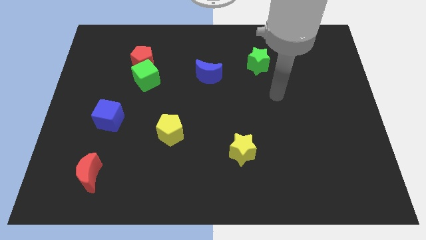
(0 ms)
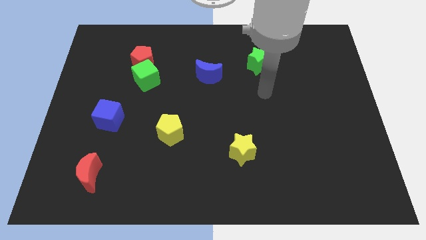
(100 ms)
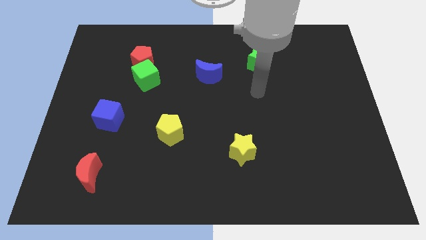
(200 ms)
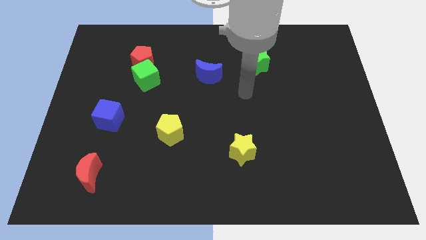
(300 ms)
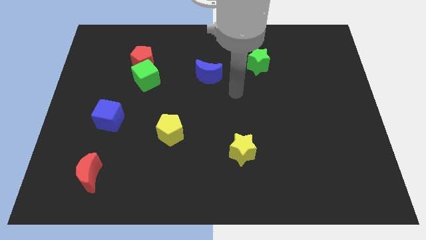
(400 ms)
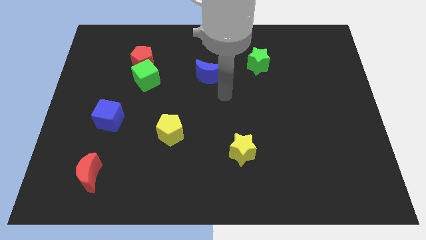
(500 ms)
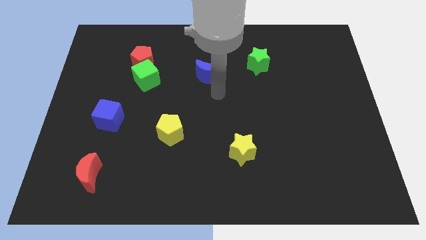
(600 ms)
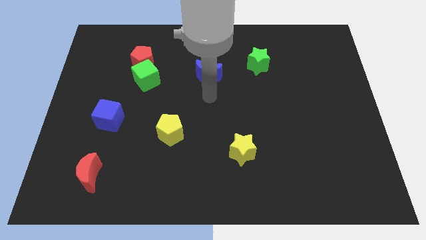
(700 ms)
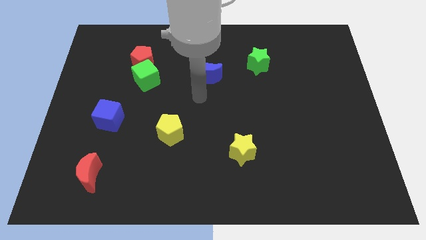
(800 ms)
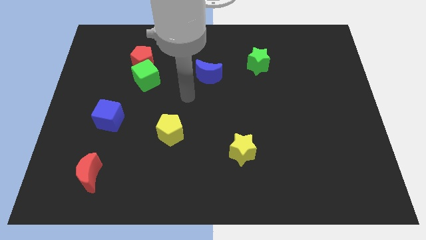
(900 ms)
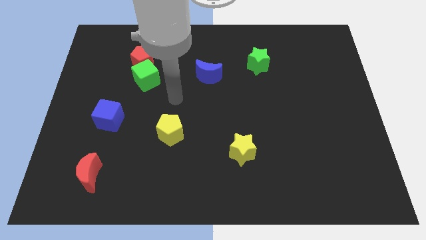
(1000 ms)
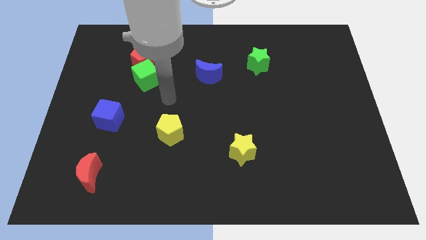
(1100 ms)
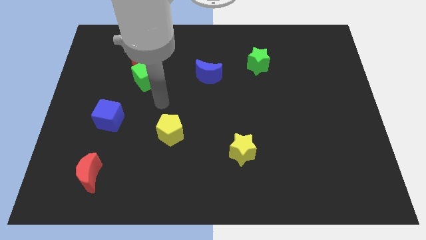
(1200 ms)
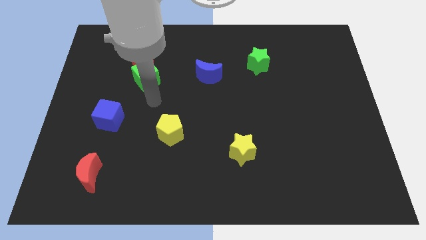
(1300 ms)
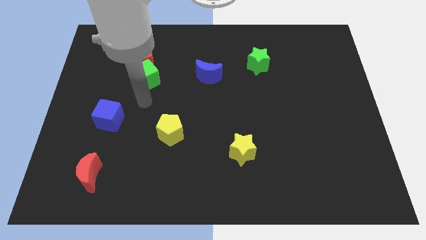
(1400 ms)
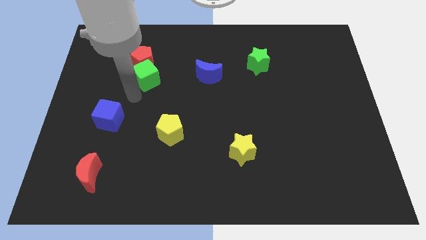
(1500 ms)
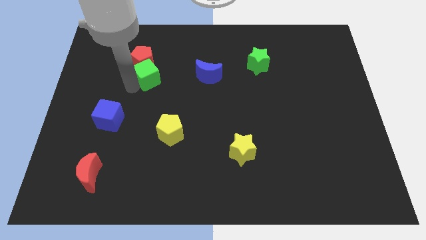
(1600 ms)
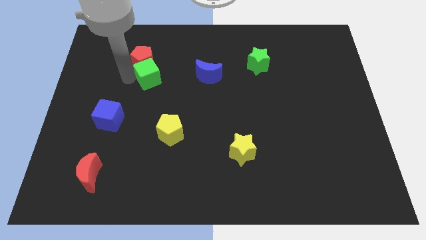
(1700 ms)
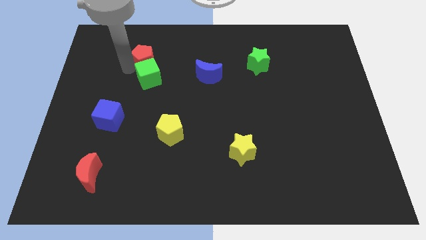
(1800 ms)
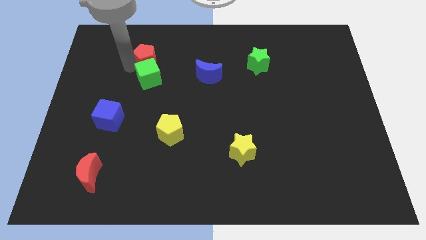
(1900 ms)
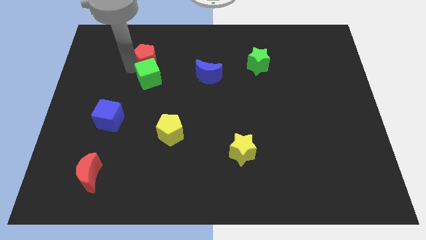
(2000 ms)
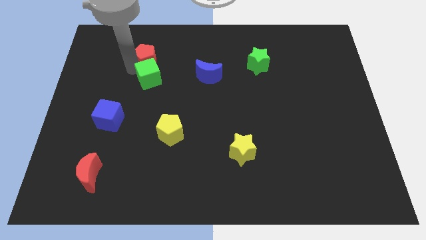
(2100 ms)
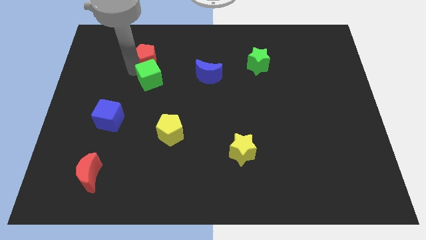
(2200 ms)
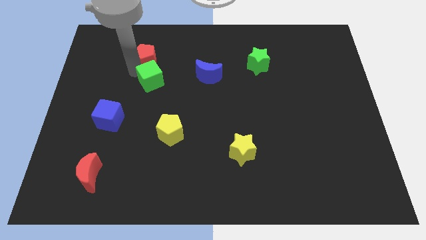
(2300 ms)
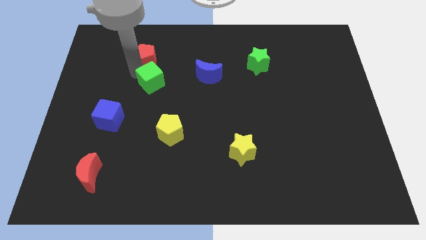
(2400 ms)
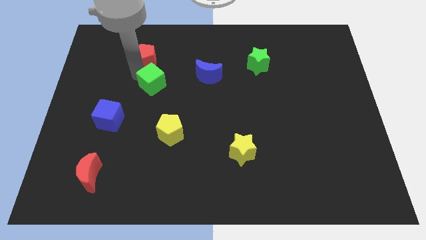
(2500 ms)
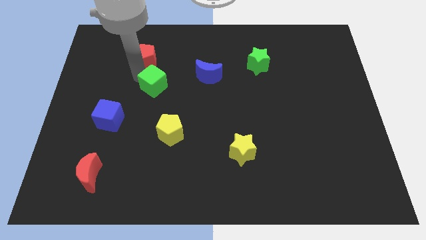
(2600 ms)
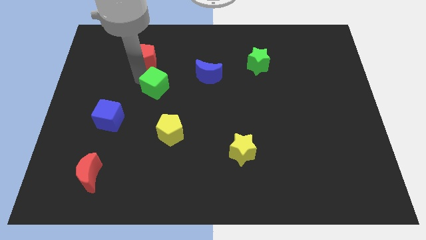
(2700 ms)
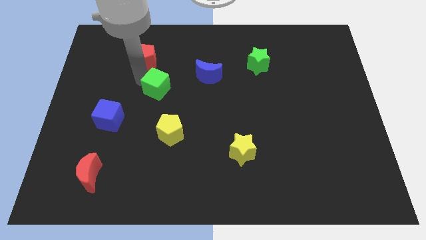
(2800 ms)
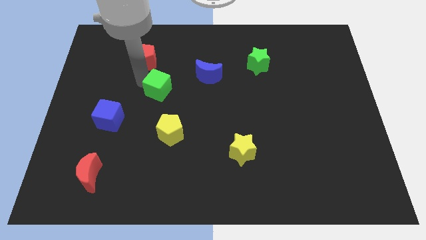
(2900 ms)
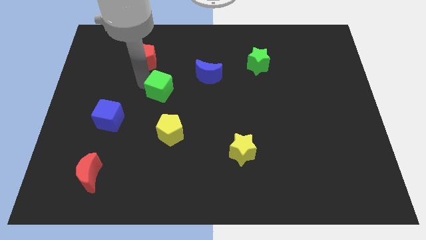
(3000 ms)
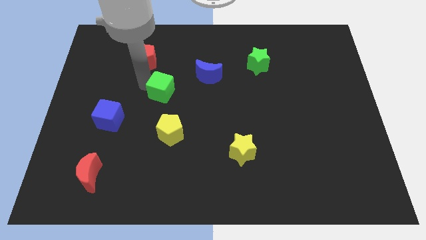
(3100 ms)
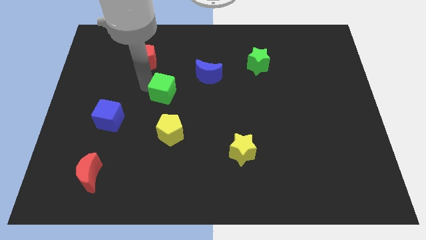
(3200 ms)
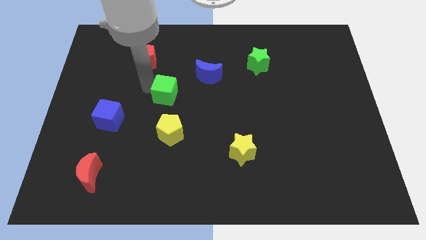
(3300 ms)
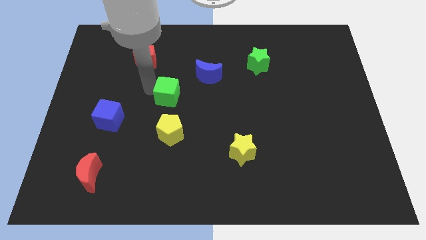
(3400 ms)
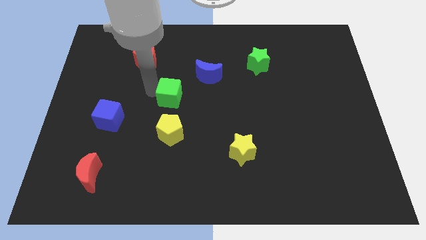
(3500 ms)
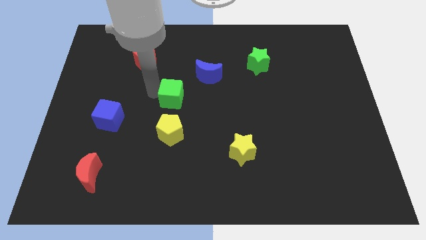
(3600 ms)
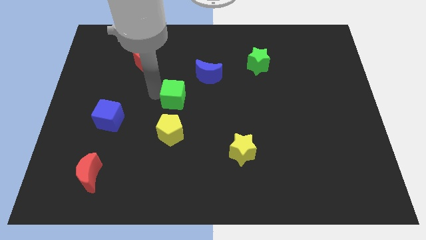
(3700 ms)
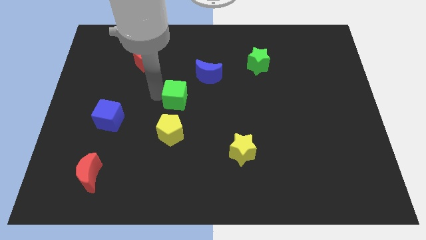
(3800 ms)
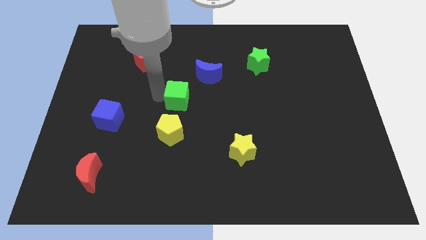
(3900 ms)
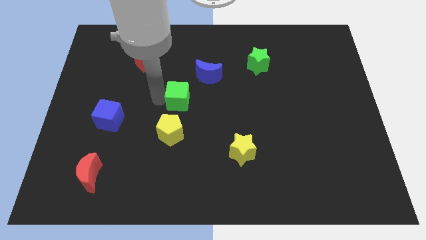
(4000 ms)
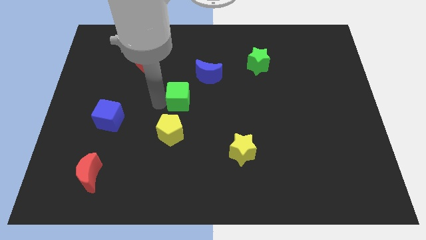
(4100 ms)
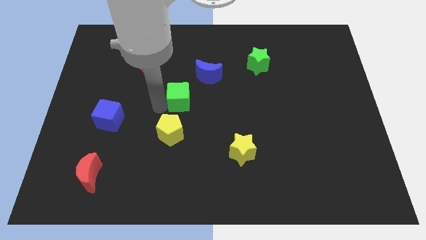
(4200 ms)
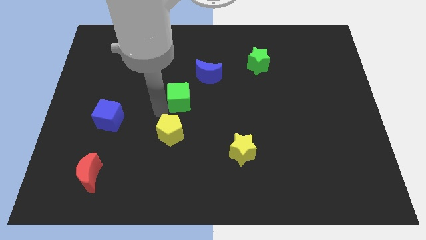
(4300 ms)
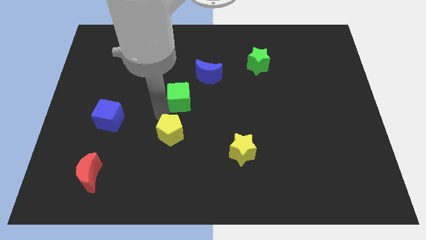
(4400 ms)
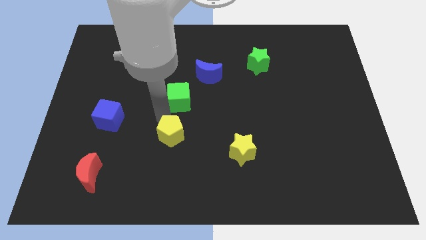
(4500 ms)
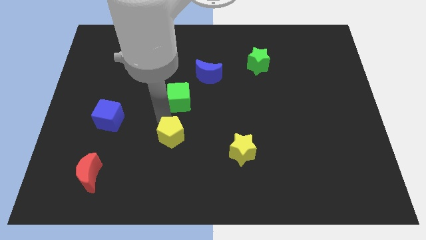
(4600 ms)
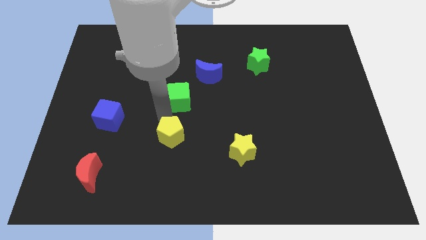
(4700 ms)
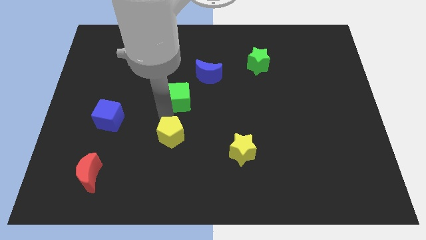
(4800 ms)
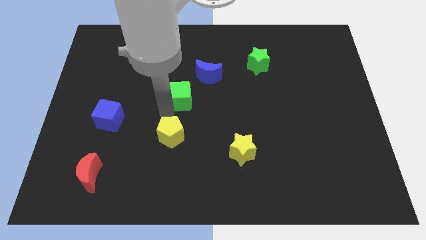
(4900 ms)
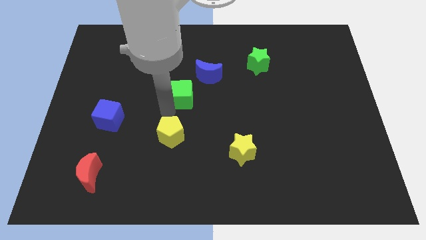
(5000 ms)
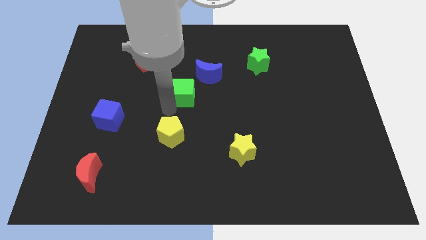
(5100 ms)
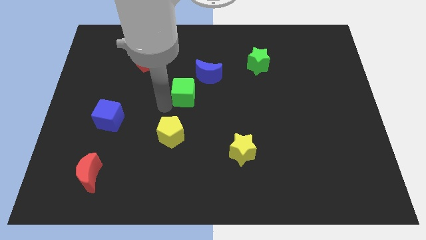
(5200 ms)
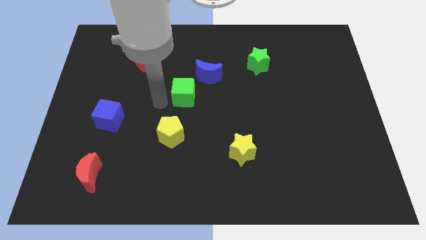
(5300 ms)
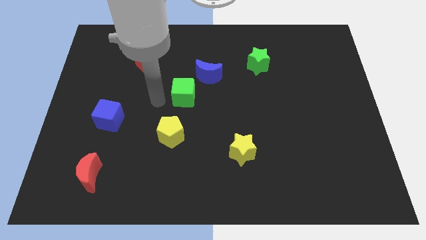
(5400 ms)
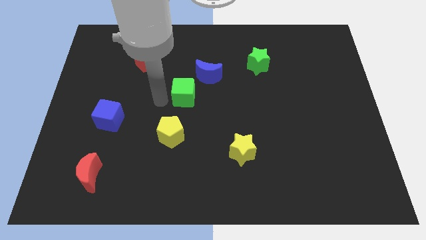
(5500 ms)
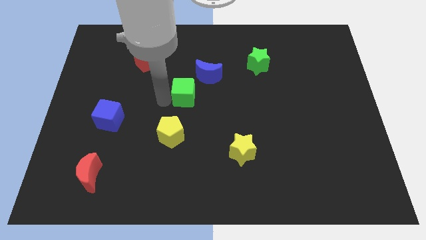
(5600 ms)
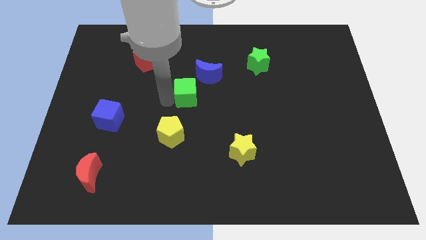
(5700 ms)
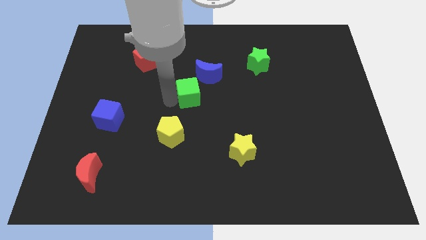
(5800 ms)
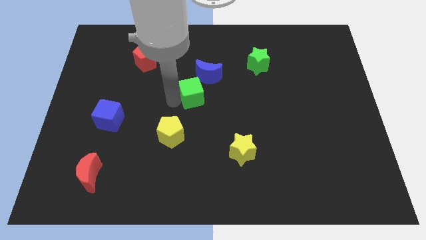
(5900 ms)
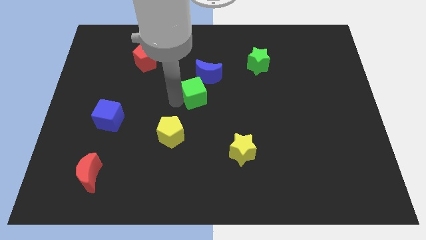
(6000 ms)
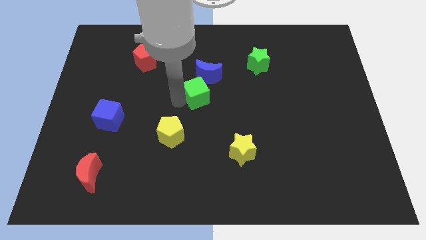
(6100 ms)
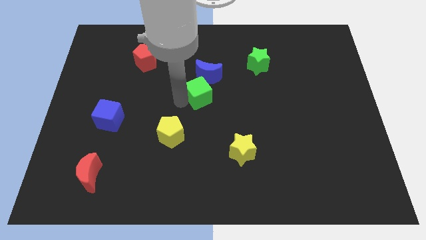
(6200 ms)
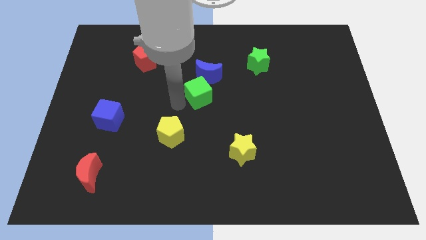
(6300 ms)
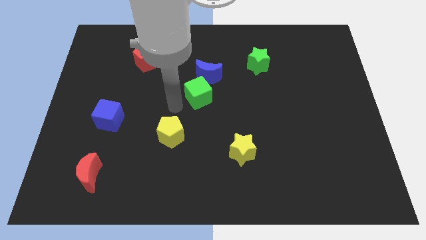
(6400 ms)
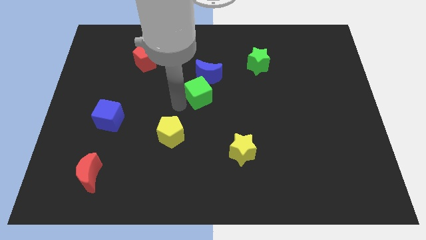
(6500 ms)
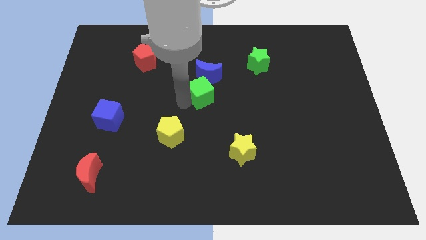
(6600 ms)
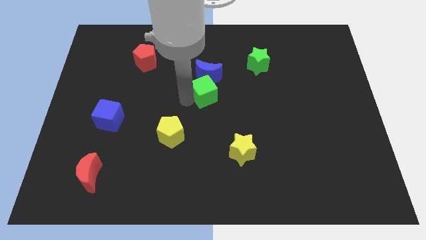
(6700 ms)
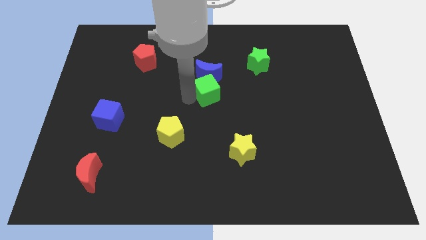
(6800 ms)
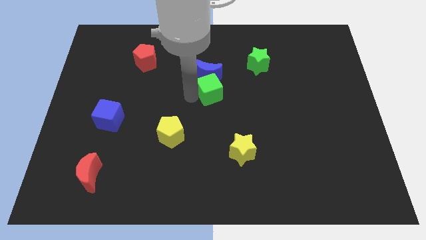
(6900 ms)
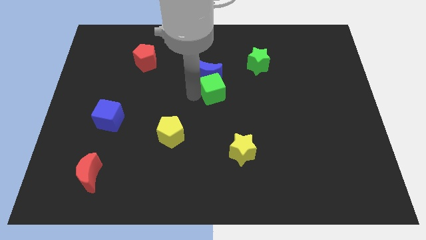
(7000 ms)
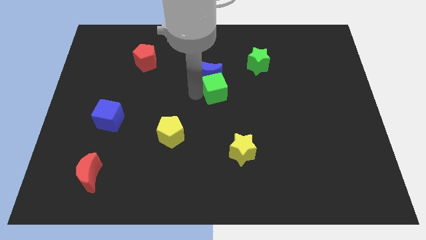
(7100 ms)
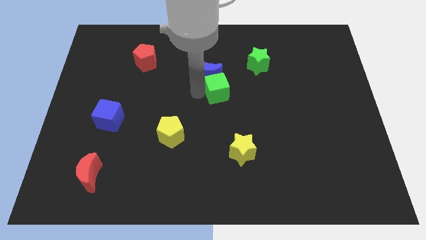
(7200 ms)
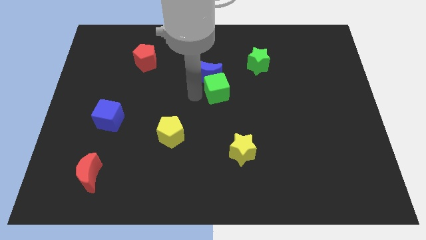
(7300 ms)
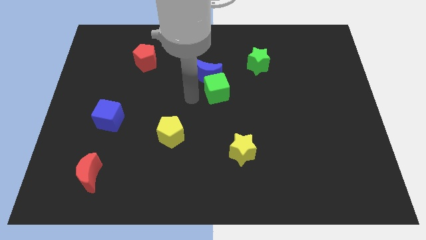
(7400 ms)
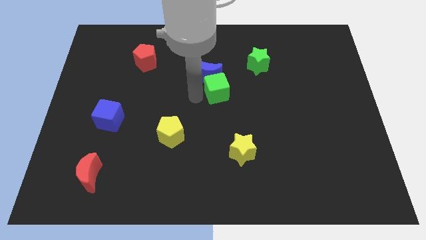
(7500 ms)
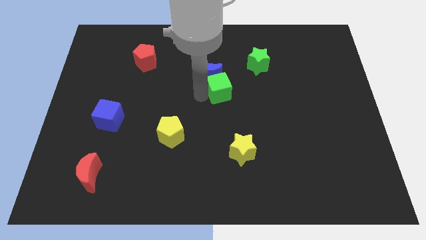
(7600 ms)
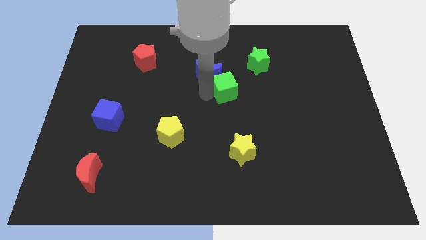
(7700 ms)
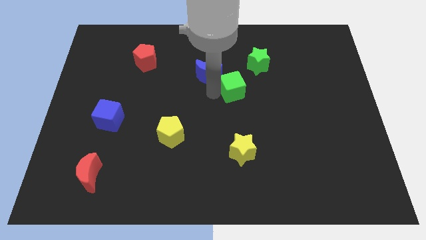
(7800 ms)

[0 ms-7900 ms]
slide the green cube to the right

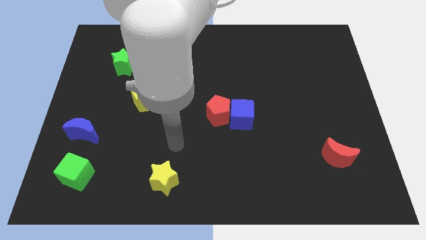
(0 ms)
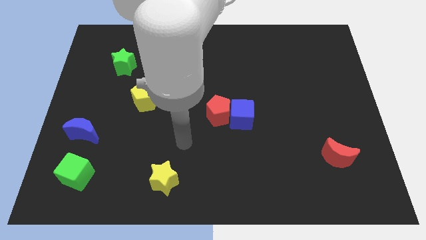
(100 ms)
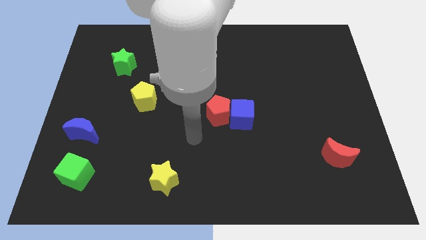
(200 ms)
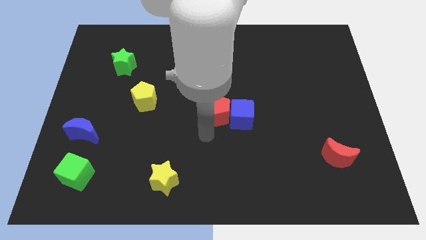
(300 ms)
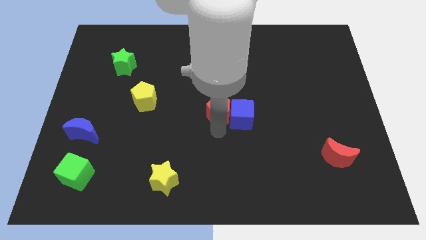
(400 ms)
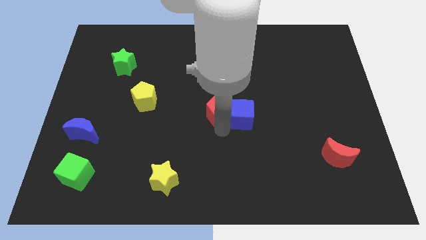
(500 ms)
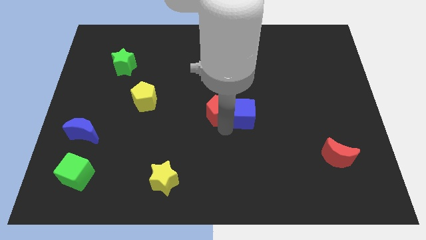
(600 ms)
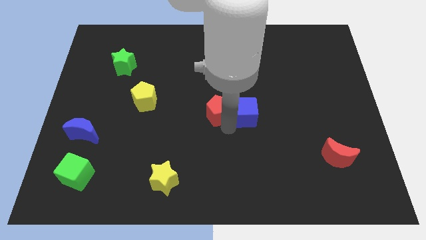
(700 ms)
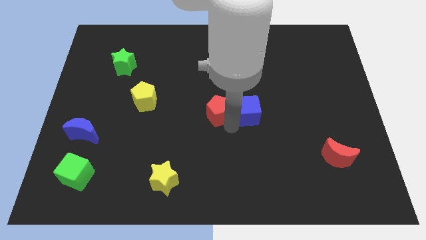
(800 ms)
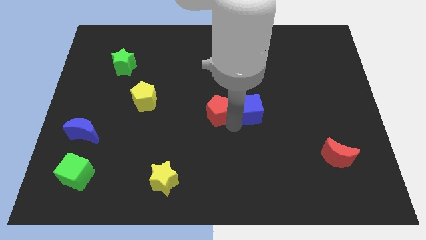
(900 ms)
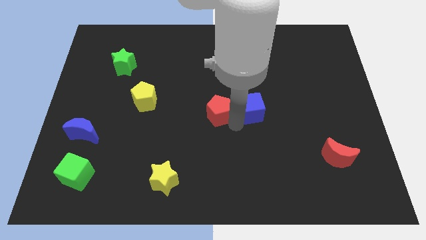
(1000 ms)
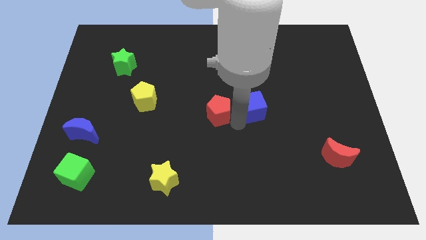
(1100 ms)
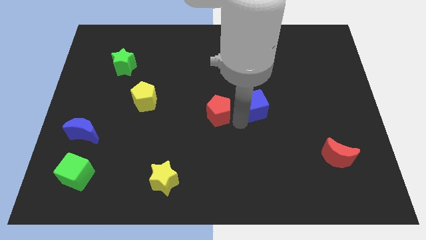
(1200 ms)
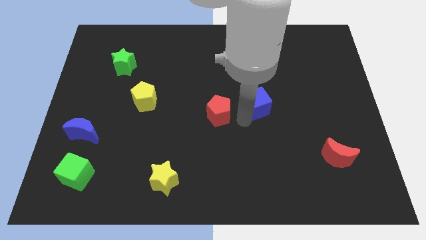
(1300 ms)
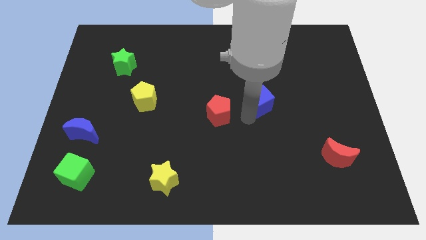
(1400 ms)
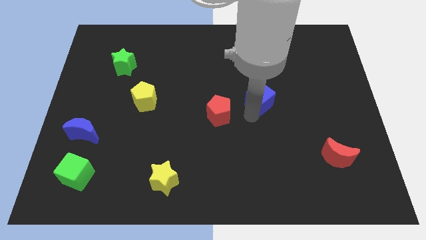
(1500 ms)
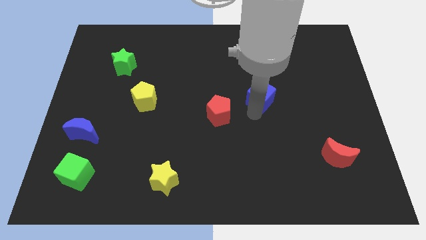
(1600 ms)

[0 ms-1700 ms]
move the blue cube a bit diagonally up and right
